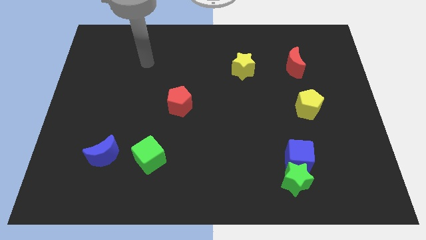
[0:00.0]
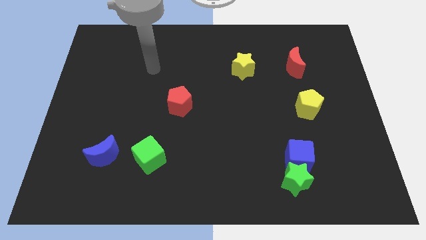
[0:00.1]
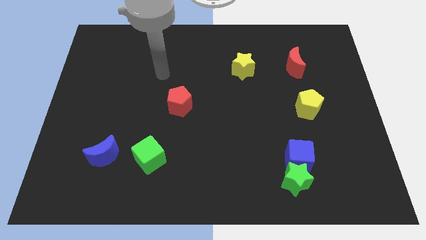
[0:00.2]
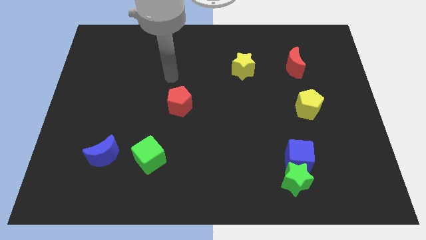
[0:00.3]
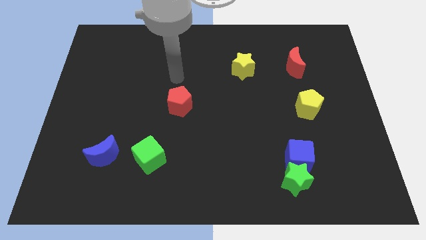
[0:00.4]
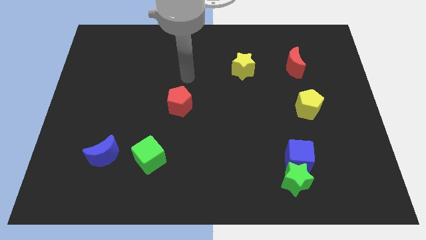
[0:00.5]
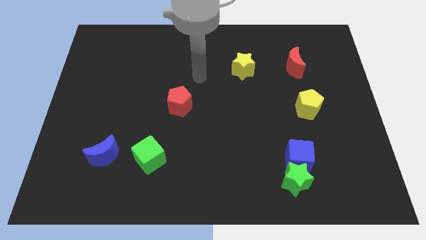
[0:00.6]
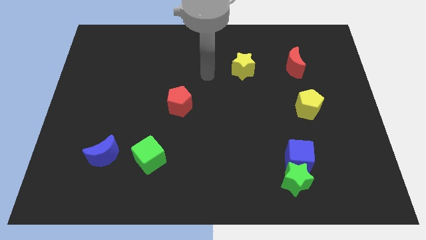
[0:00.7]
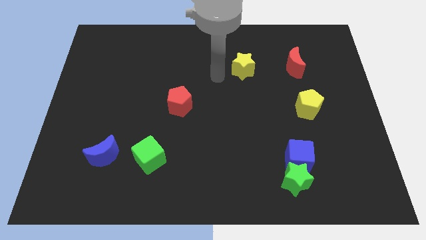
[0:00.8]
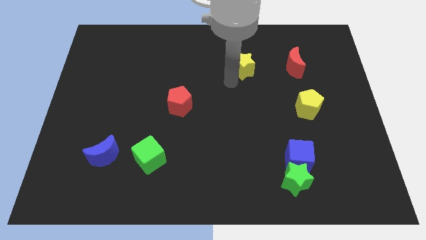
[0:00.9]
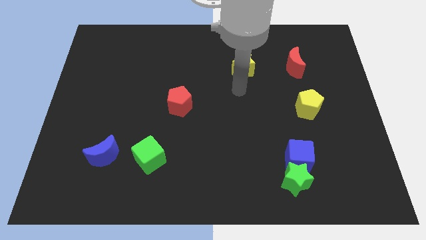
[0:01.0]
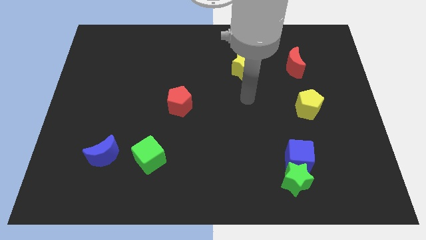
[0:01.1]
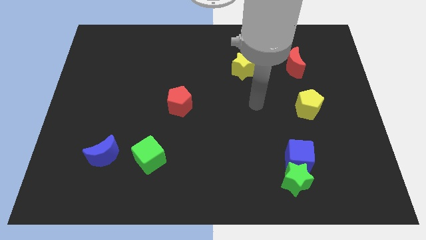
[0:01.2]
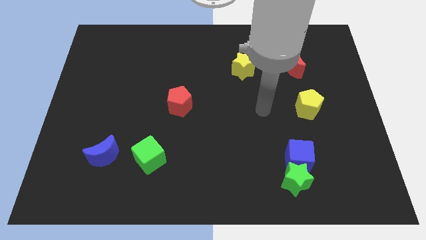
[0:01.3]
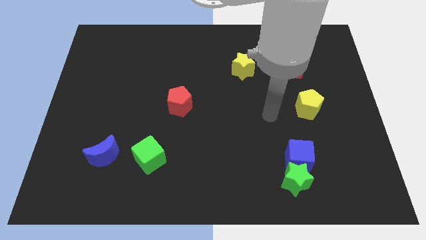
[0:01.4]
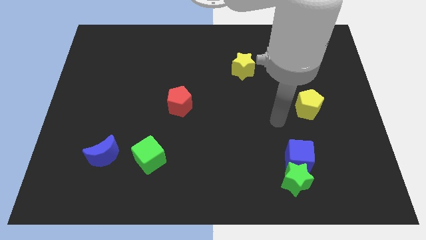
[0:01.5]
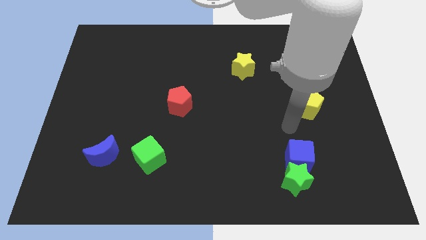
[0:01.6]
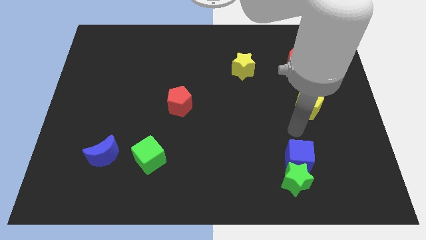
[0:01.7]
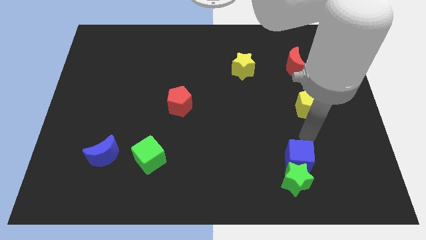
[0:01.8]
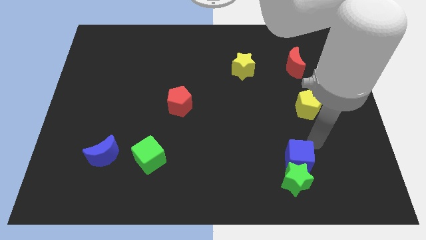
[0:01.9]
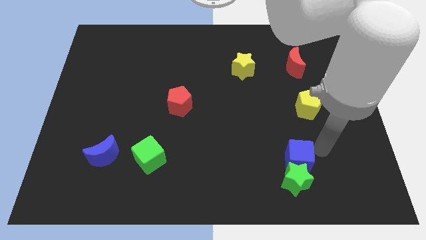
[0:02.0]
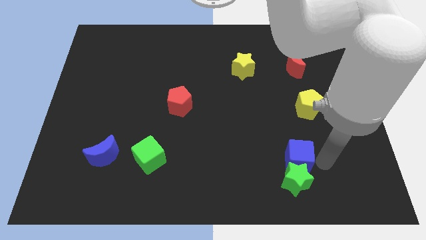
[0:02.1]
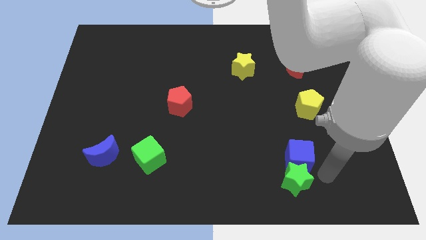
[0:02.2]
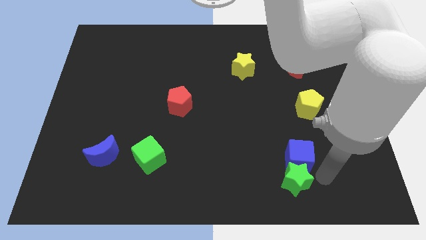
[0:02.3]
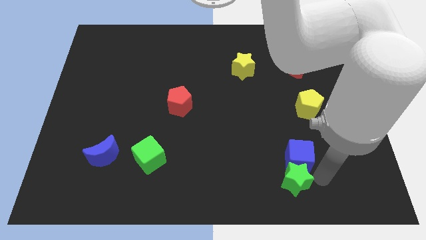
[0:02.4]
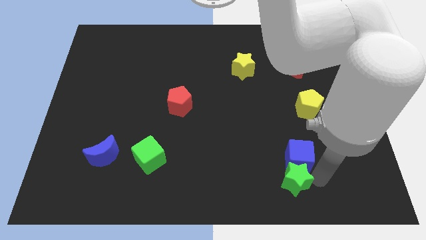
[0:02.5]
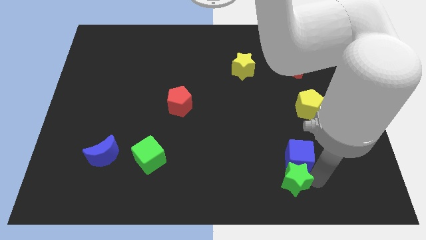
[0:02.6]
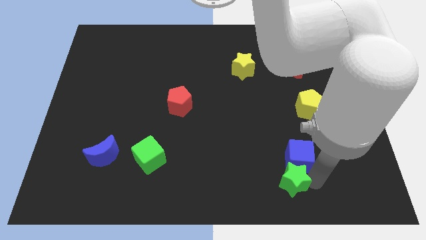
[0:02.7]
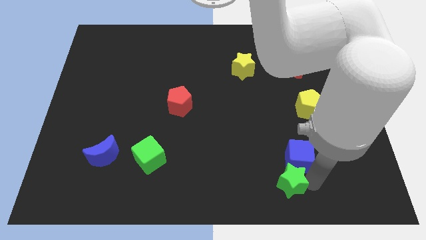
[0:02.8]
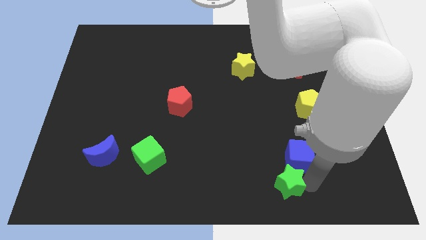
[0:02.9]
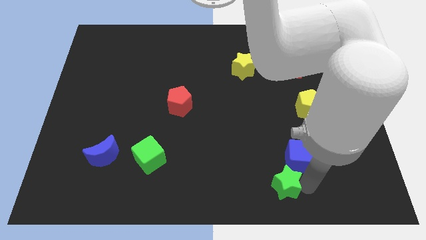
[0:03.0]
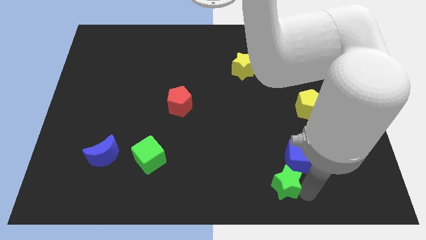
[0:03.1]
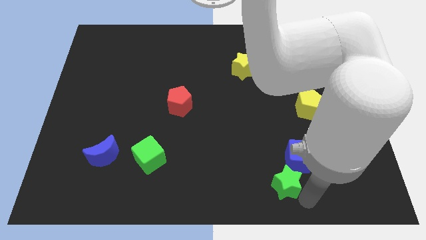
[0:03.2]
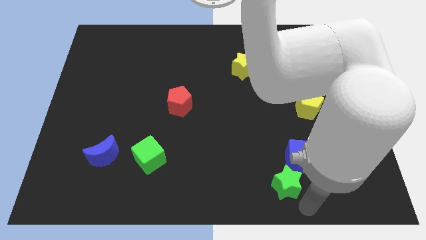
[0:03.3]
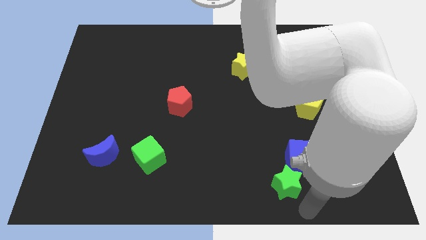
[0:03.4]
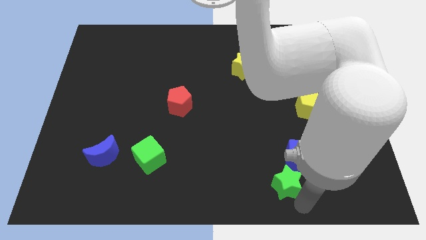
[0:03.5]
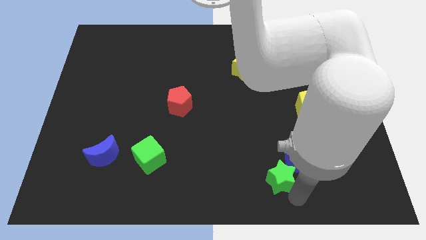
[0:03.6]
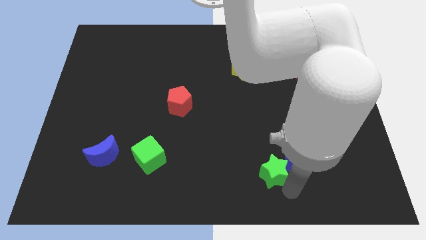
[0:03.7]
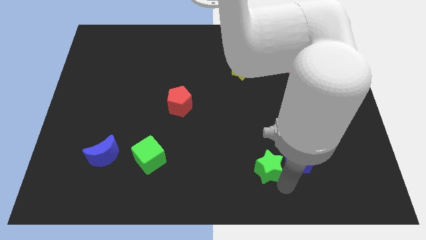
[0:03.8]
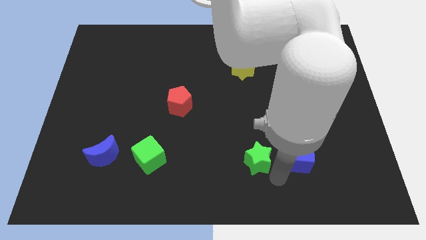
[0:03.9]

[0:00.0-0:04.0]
slide the green star a little upwards and then to the left

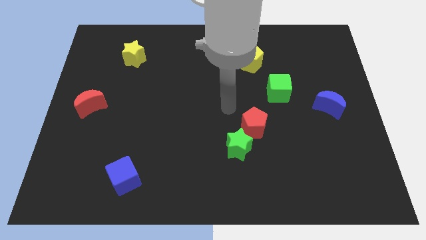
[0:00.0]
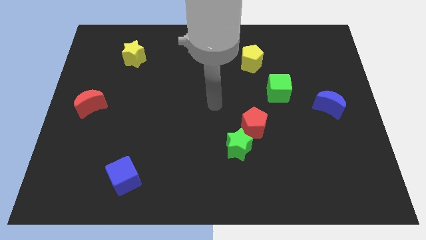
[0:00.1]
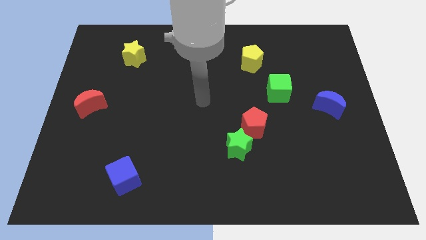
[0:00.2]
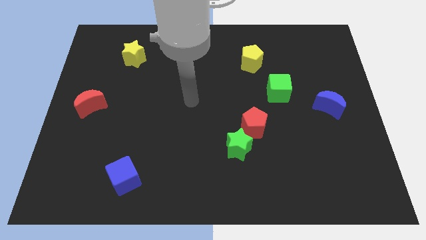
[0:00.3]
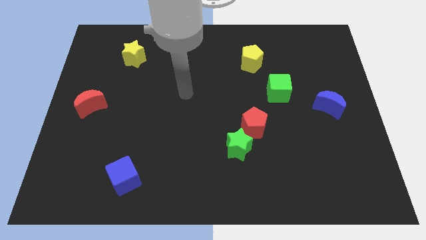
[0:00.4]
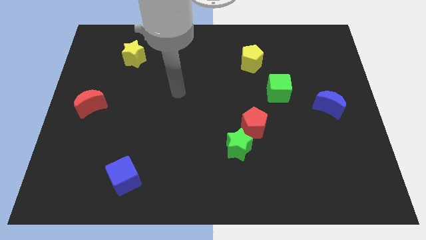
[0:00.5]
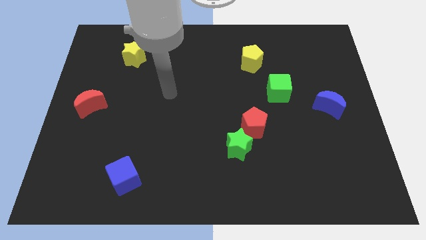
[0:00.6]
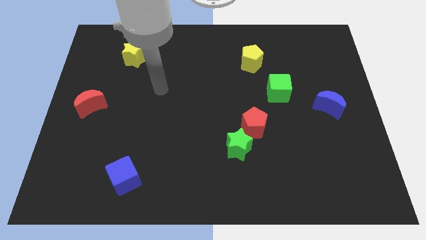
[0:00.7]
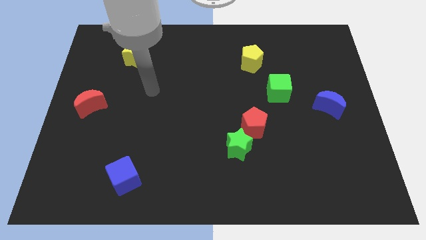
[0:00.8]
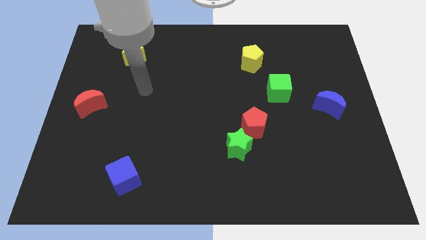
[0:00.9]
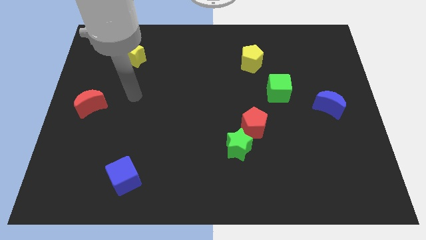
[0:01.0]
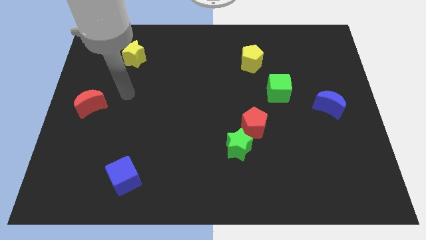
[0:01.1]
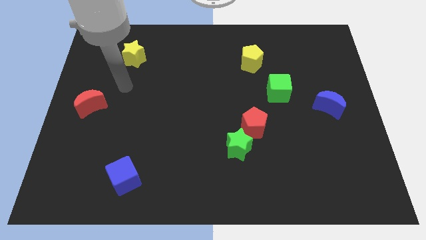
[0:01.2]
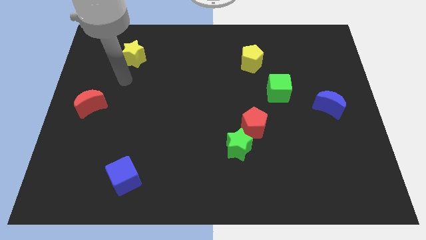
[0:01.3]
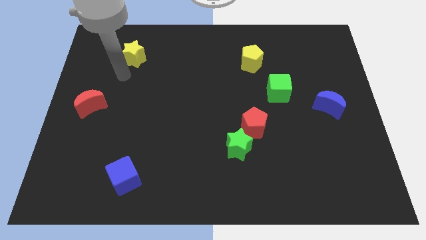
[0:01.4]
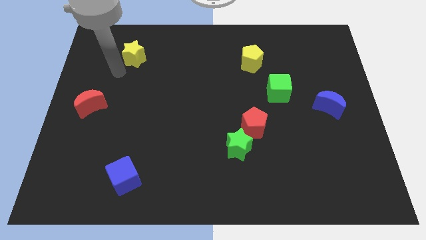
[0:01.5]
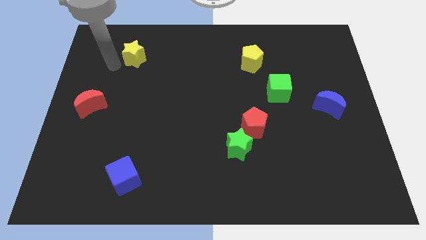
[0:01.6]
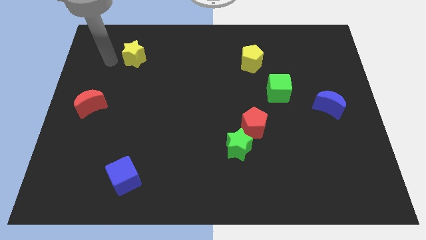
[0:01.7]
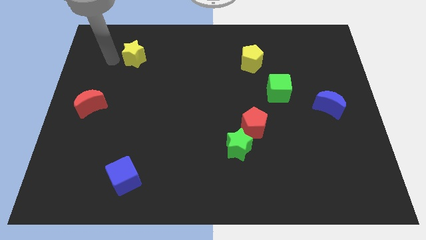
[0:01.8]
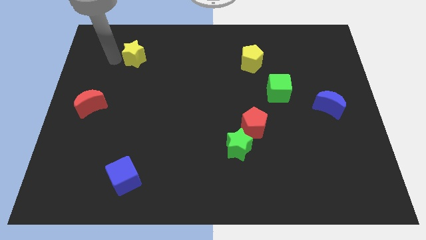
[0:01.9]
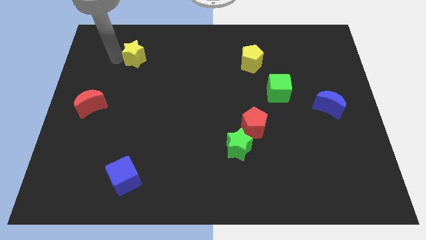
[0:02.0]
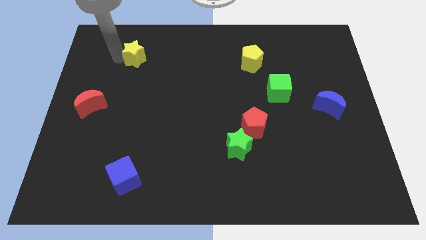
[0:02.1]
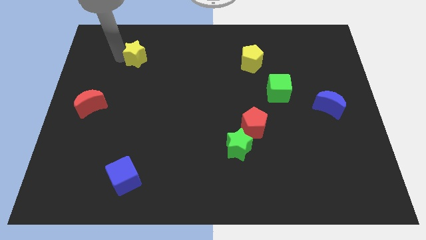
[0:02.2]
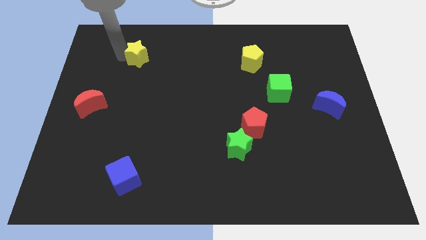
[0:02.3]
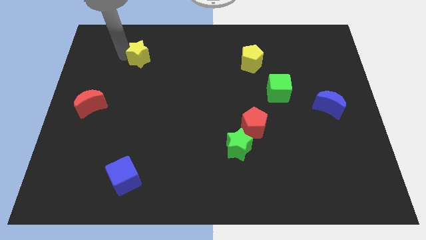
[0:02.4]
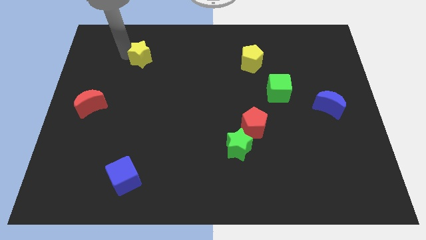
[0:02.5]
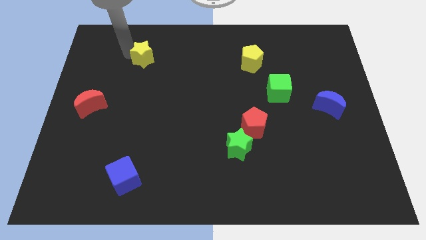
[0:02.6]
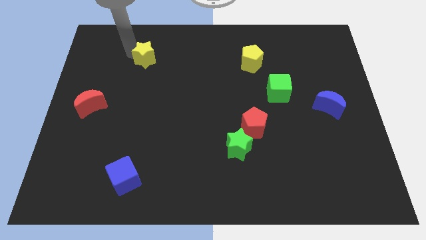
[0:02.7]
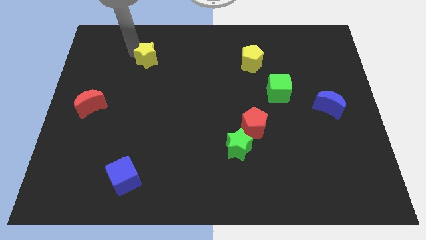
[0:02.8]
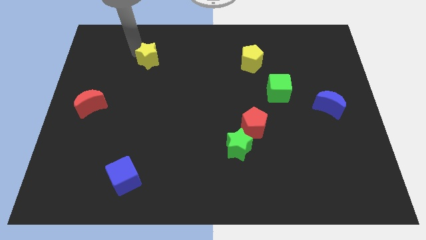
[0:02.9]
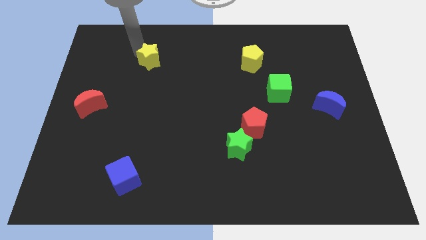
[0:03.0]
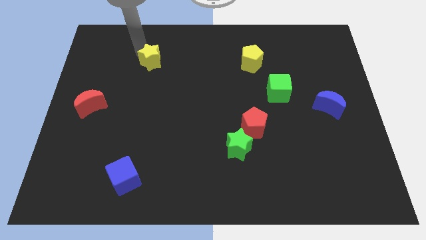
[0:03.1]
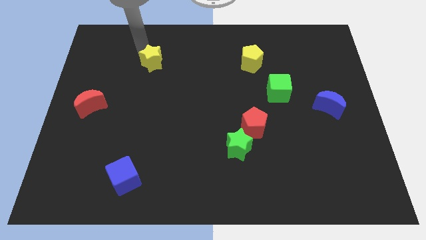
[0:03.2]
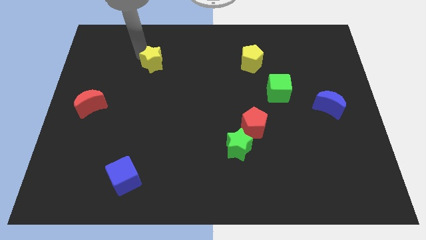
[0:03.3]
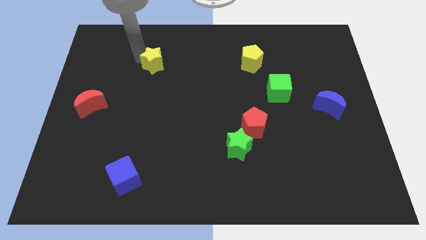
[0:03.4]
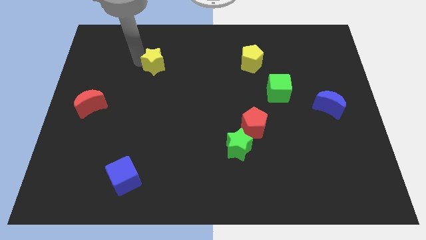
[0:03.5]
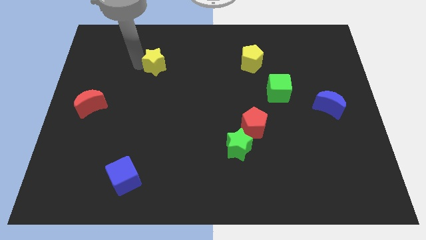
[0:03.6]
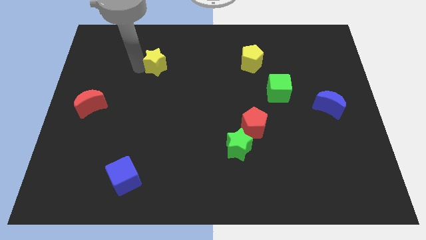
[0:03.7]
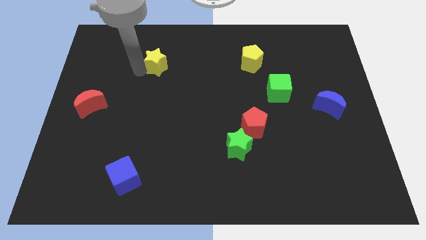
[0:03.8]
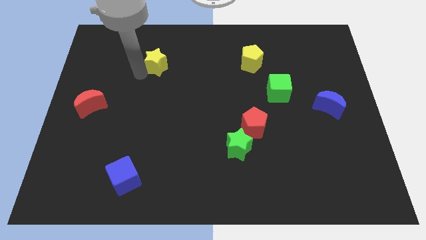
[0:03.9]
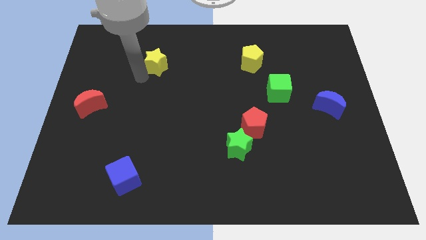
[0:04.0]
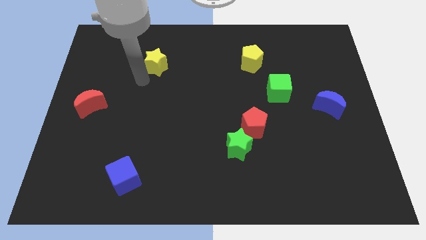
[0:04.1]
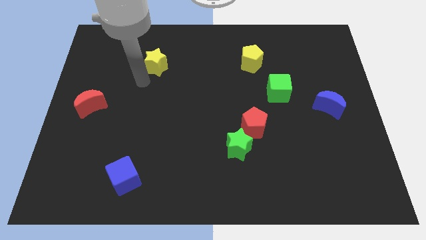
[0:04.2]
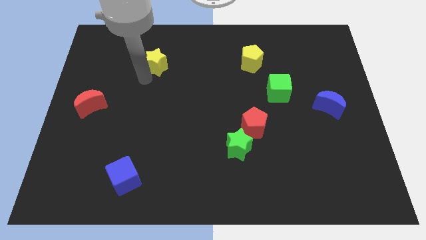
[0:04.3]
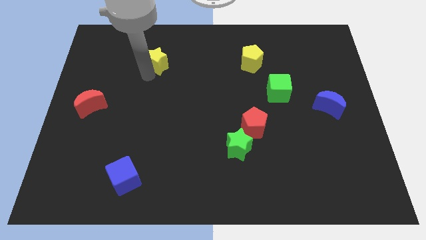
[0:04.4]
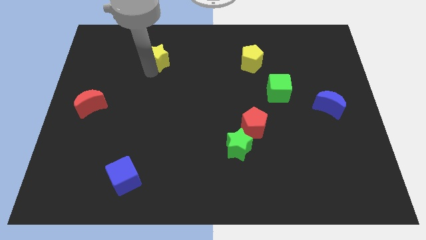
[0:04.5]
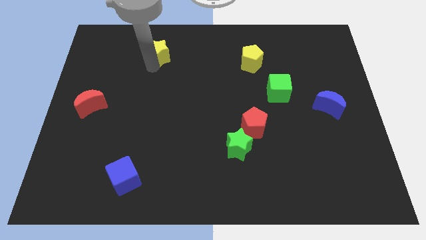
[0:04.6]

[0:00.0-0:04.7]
push the yellow star somewhat right
